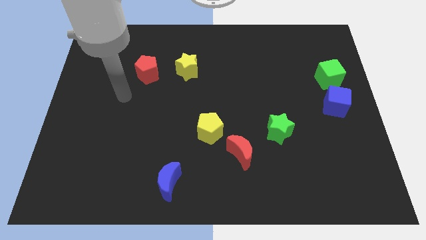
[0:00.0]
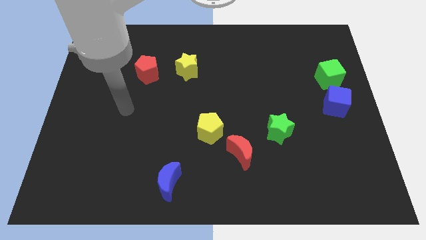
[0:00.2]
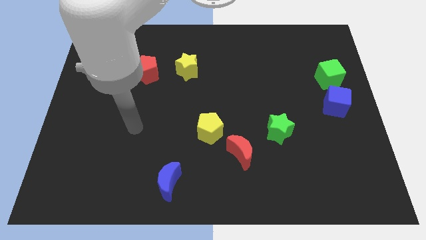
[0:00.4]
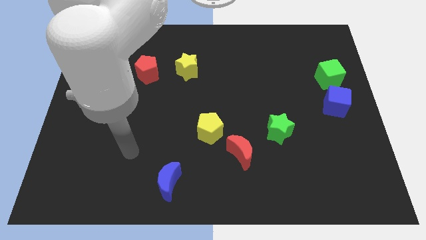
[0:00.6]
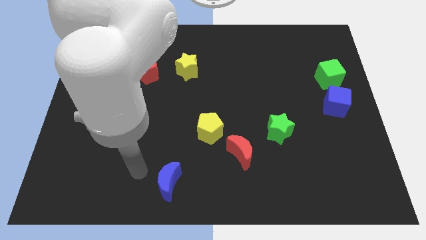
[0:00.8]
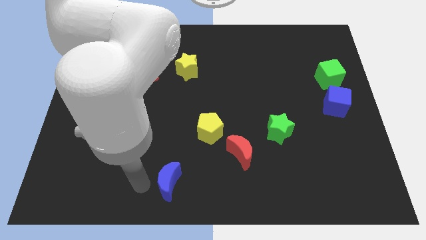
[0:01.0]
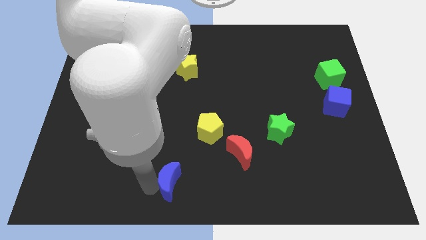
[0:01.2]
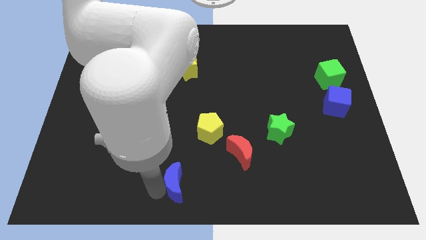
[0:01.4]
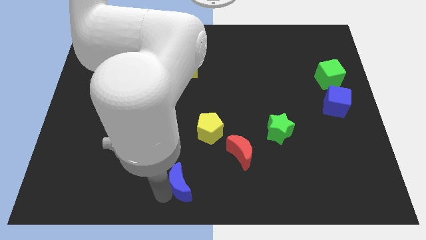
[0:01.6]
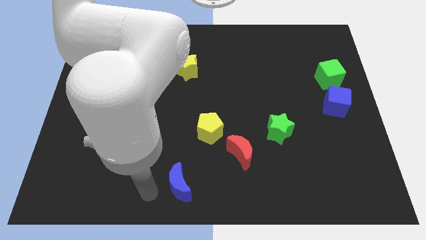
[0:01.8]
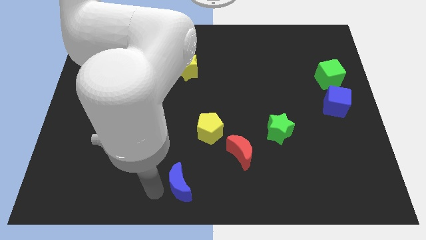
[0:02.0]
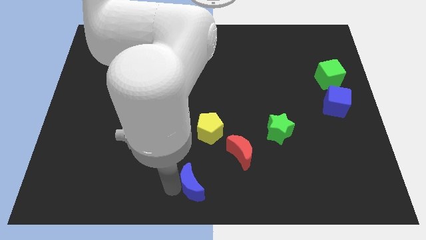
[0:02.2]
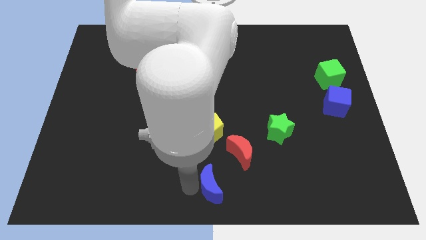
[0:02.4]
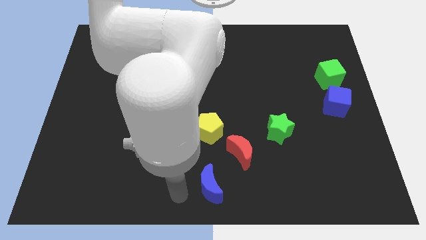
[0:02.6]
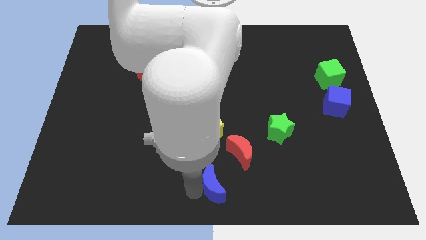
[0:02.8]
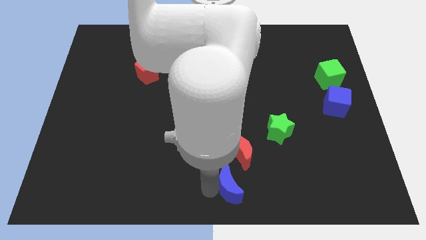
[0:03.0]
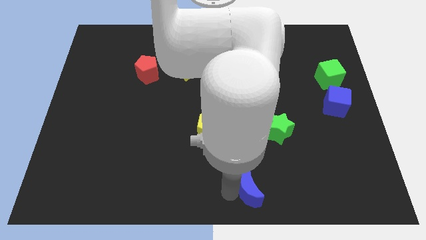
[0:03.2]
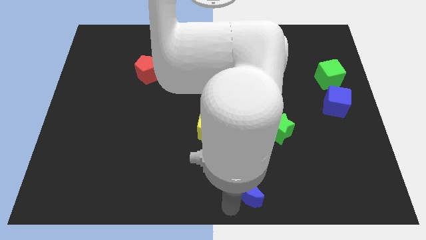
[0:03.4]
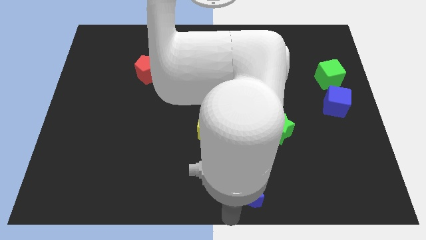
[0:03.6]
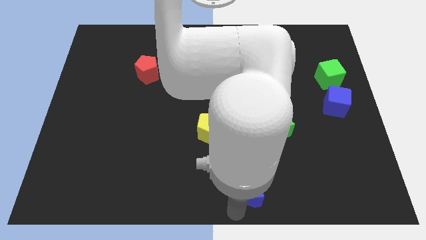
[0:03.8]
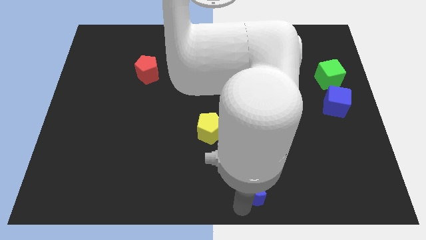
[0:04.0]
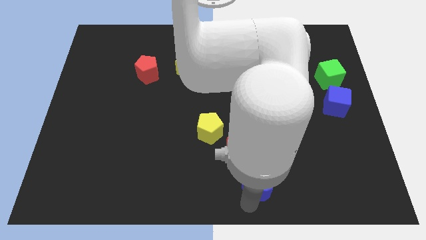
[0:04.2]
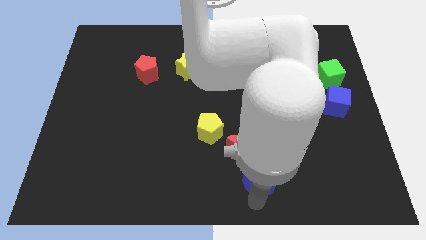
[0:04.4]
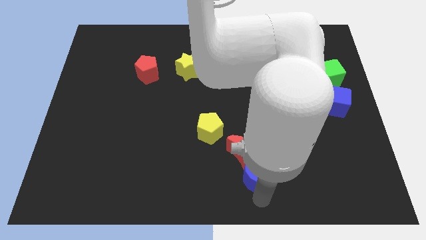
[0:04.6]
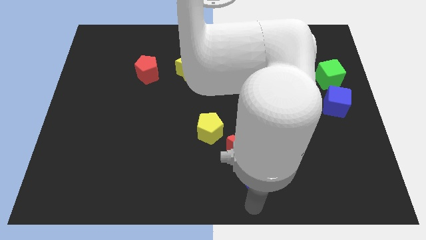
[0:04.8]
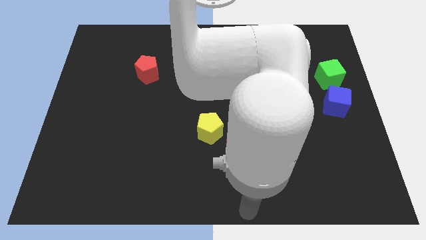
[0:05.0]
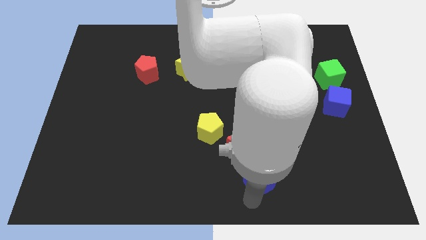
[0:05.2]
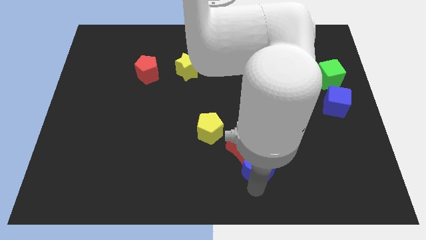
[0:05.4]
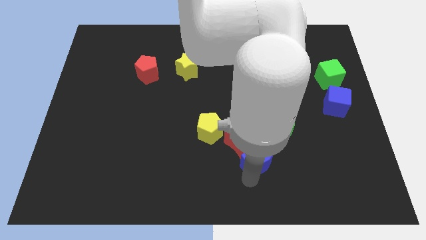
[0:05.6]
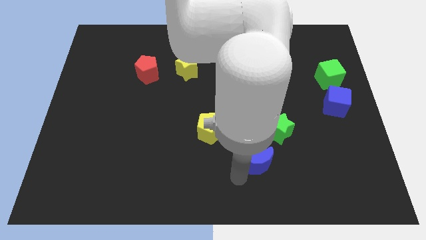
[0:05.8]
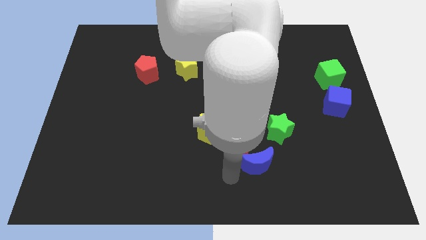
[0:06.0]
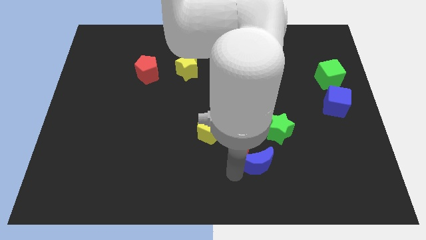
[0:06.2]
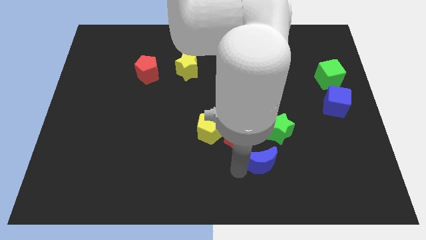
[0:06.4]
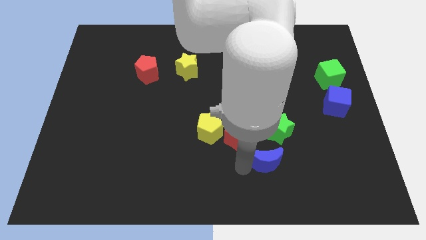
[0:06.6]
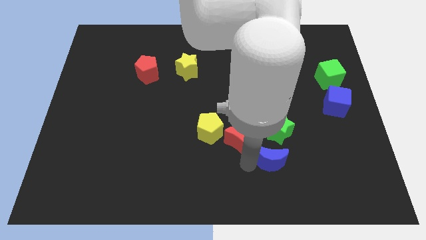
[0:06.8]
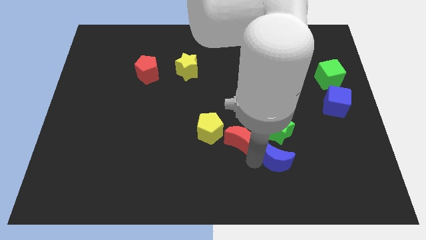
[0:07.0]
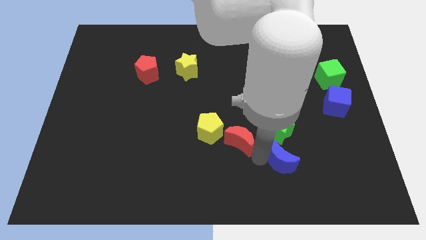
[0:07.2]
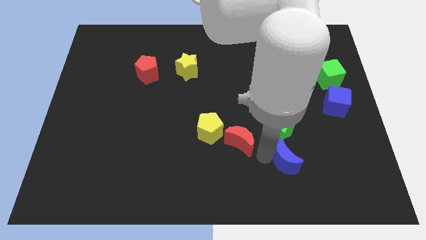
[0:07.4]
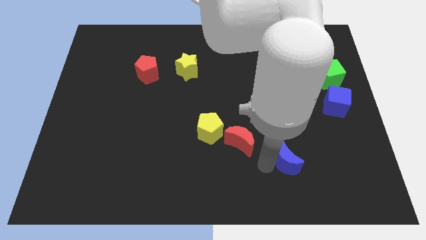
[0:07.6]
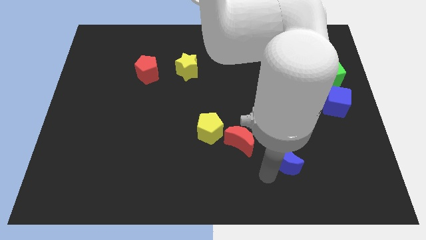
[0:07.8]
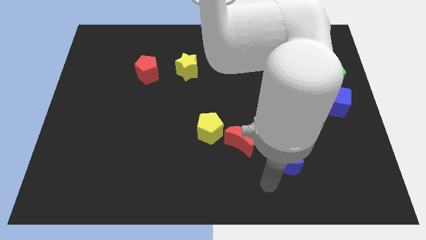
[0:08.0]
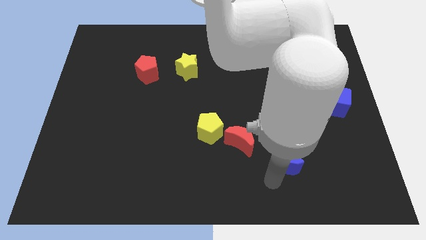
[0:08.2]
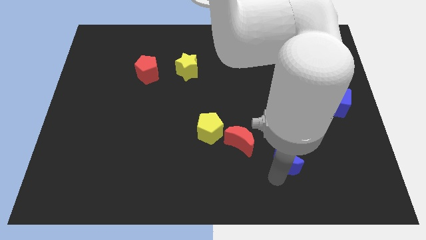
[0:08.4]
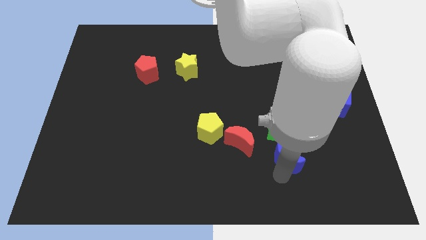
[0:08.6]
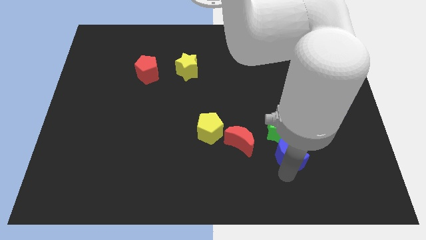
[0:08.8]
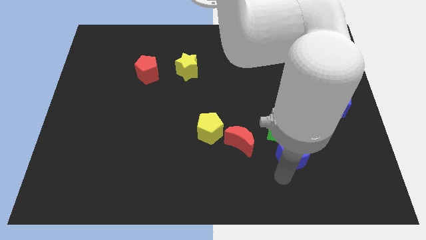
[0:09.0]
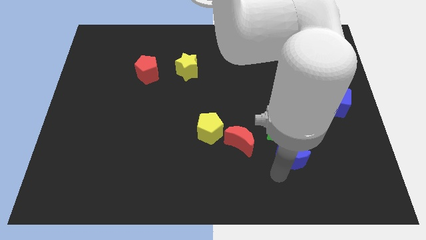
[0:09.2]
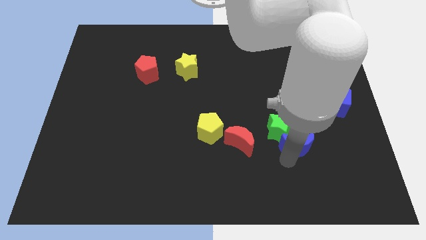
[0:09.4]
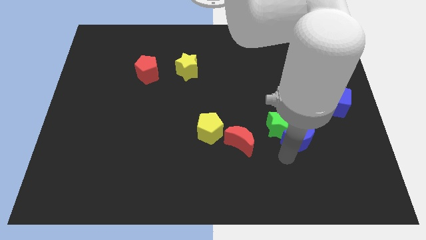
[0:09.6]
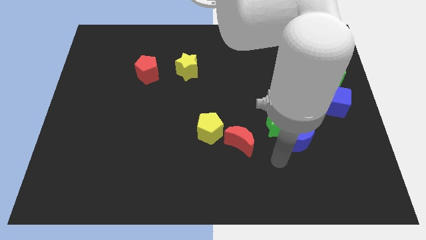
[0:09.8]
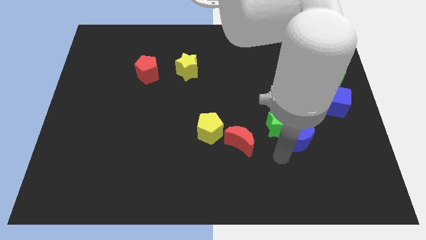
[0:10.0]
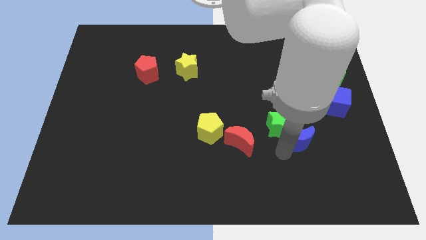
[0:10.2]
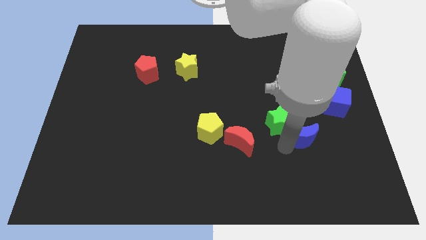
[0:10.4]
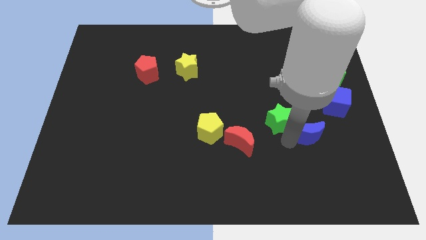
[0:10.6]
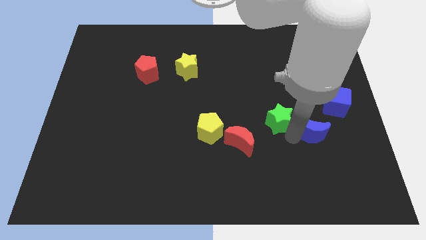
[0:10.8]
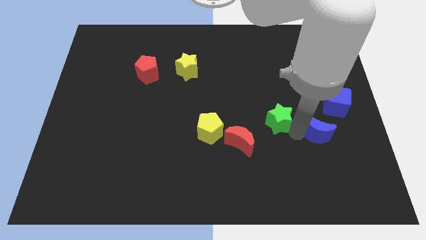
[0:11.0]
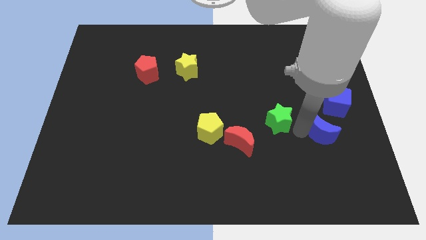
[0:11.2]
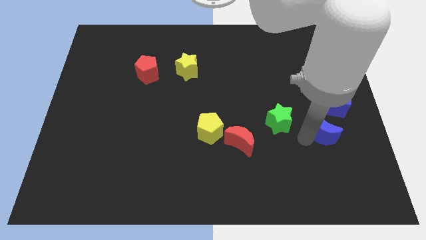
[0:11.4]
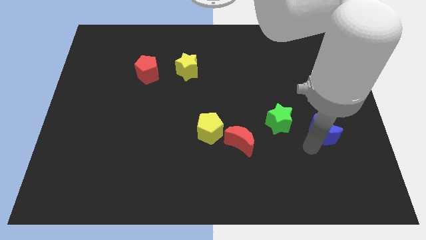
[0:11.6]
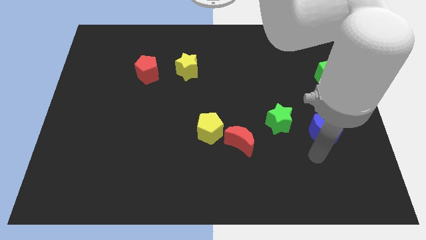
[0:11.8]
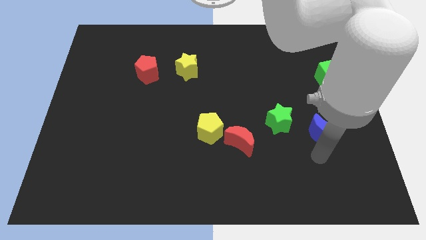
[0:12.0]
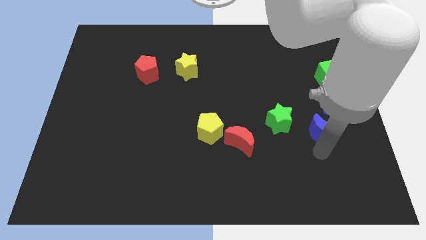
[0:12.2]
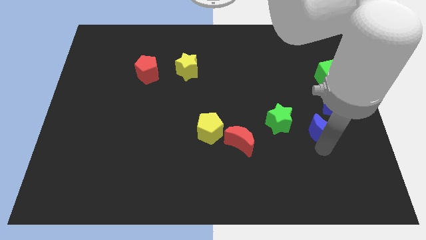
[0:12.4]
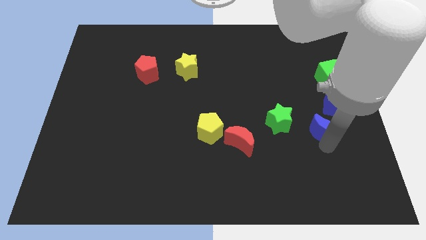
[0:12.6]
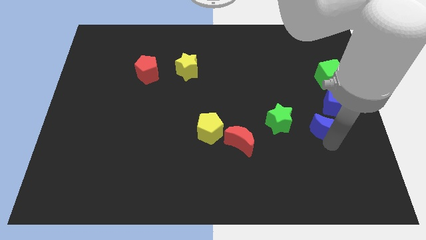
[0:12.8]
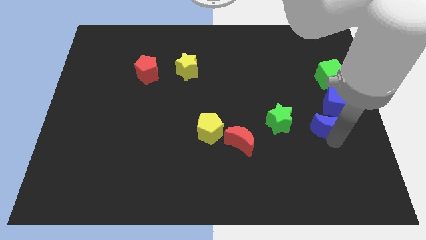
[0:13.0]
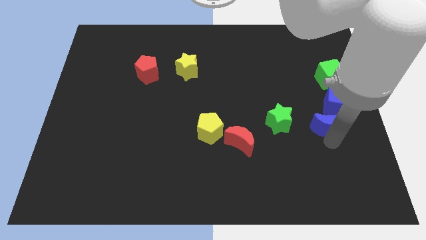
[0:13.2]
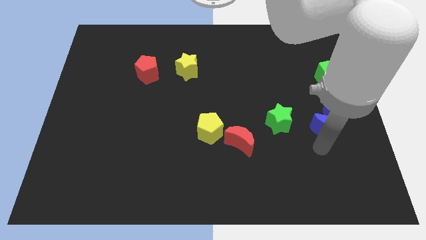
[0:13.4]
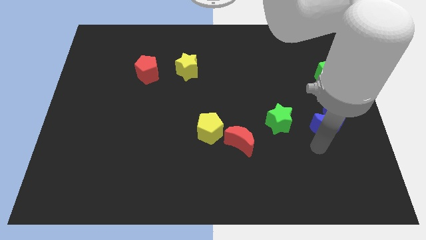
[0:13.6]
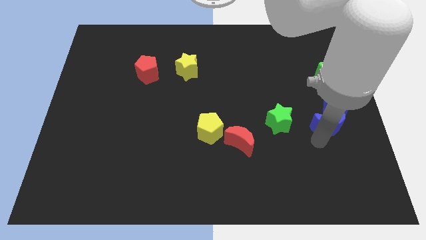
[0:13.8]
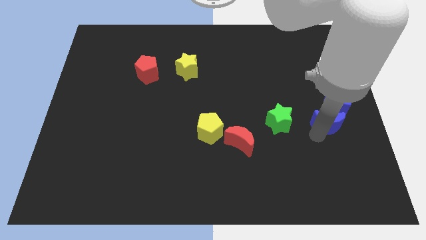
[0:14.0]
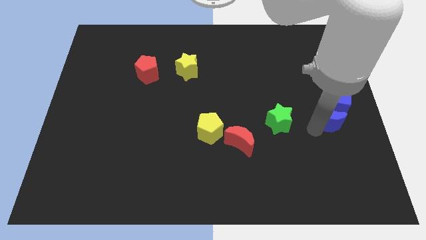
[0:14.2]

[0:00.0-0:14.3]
push the blue moon to the blue cube
